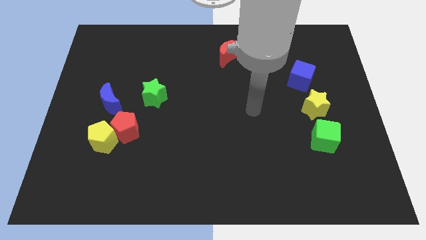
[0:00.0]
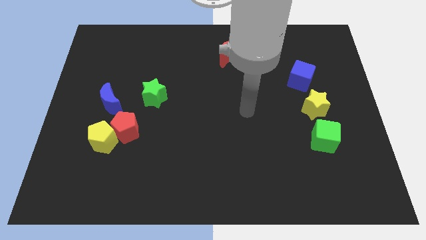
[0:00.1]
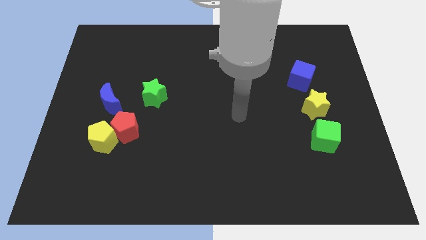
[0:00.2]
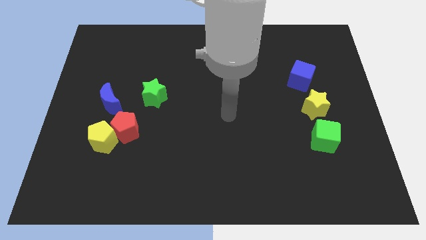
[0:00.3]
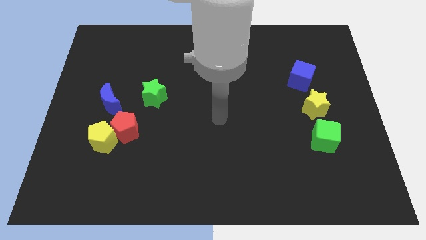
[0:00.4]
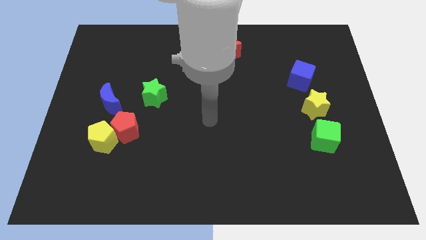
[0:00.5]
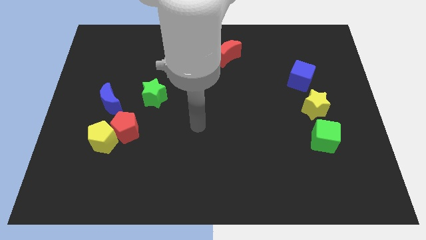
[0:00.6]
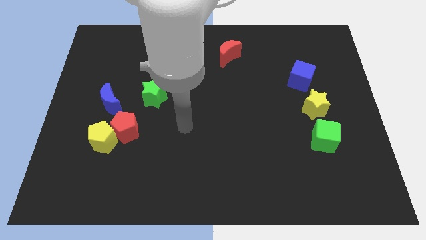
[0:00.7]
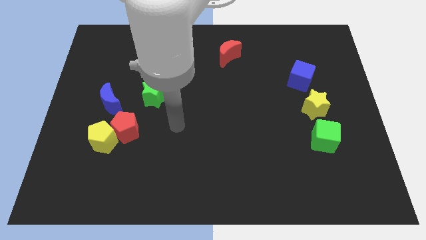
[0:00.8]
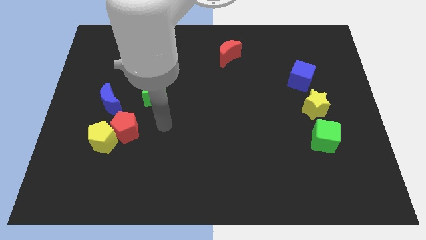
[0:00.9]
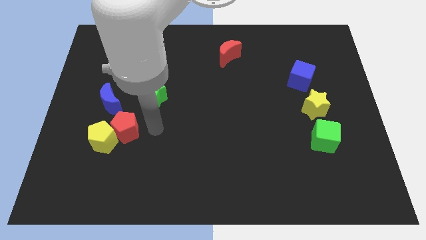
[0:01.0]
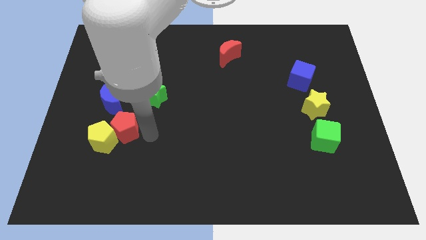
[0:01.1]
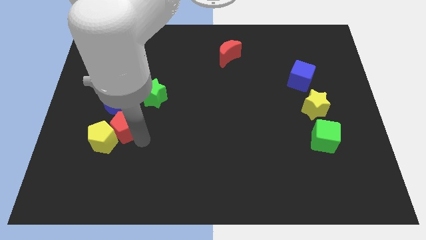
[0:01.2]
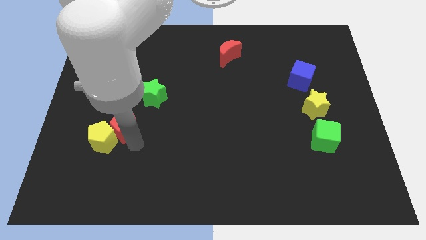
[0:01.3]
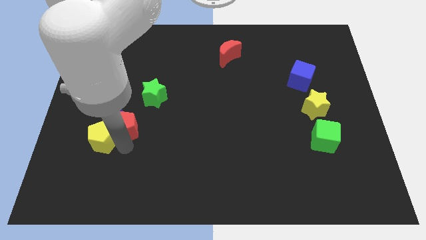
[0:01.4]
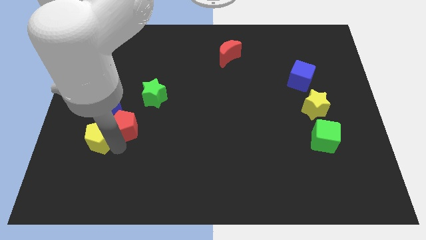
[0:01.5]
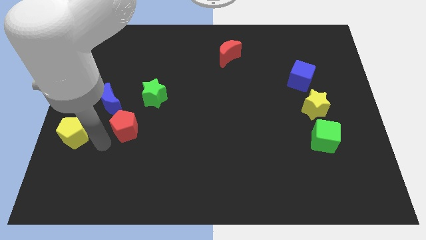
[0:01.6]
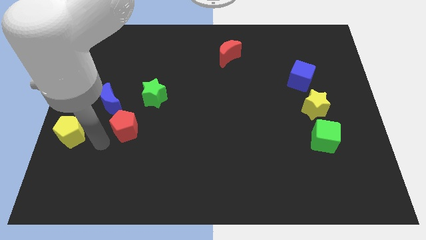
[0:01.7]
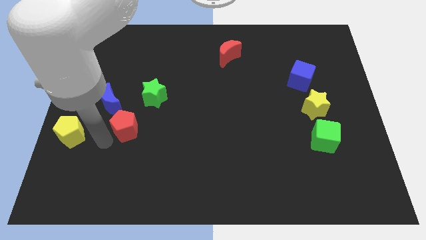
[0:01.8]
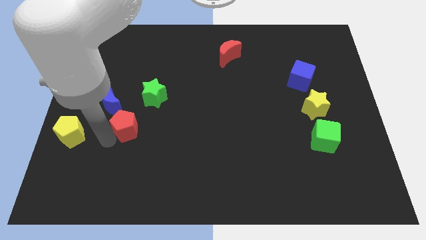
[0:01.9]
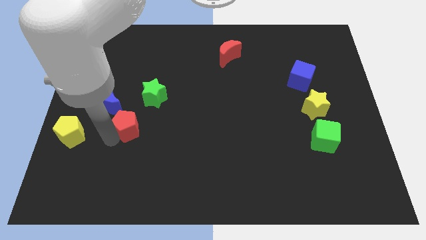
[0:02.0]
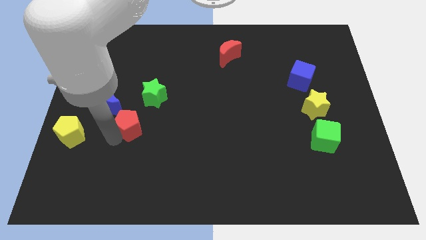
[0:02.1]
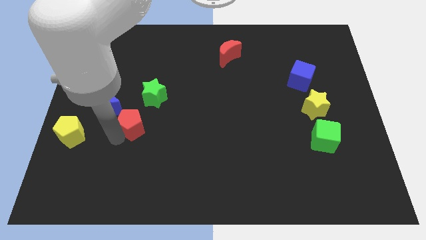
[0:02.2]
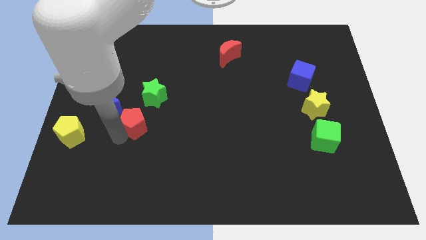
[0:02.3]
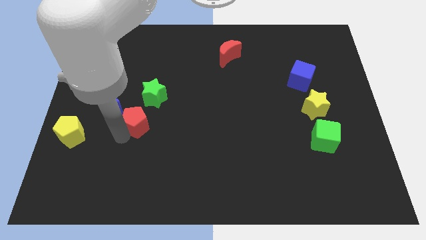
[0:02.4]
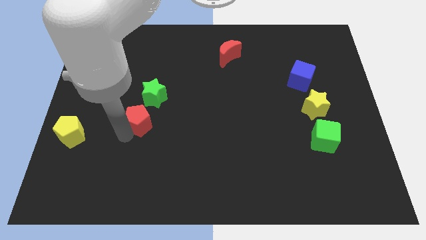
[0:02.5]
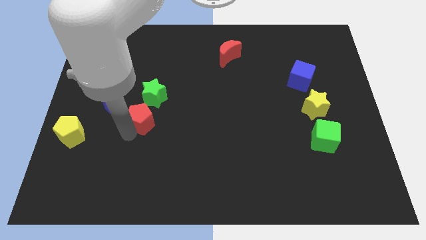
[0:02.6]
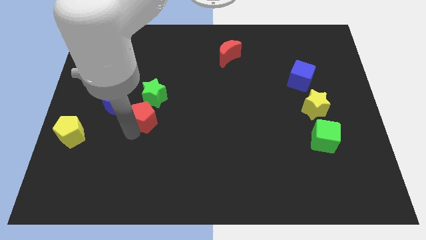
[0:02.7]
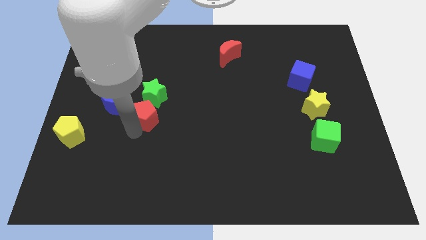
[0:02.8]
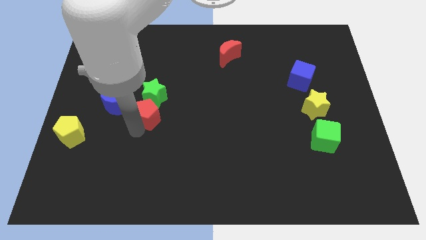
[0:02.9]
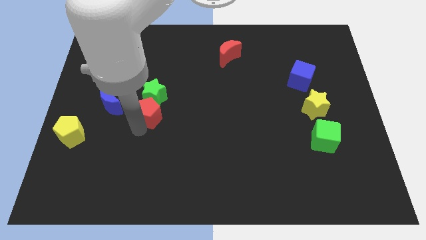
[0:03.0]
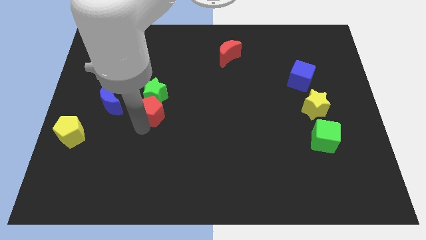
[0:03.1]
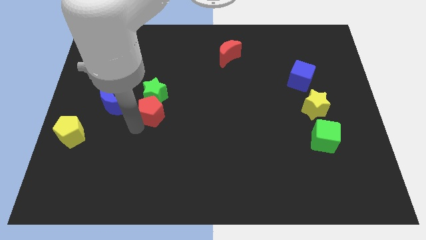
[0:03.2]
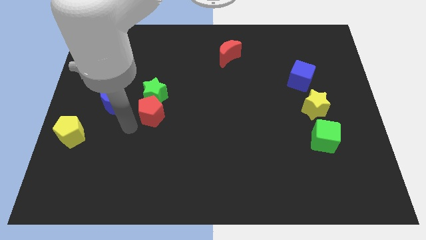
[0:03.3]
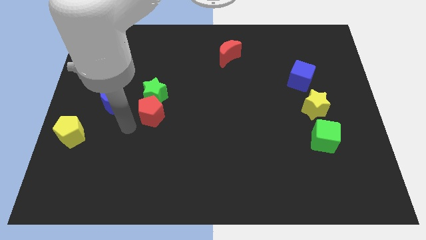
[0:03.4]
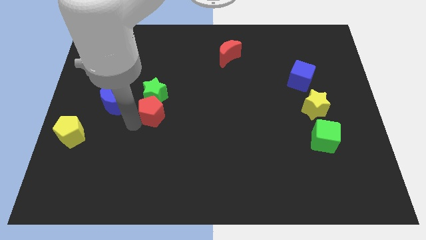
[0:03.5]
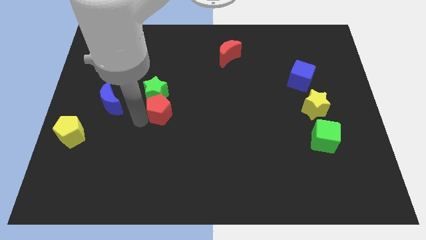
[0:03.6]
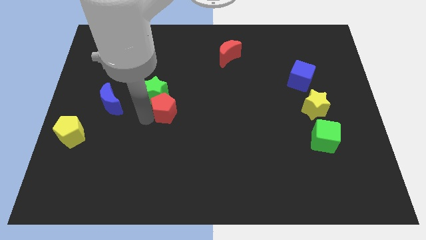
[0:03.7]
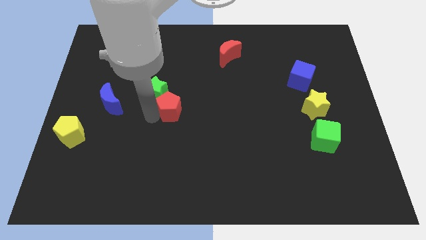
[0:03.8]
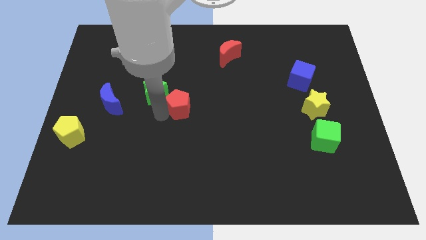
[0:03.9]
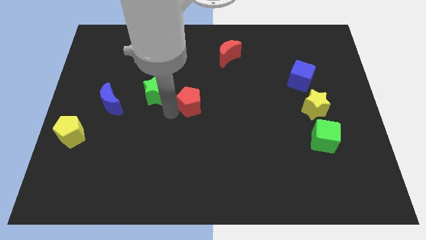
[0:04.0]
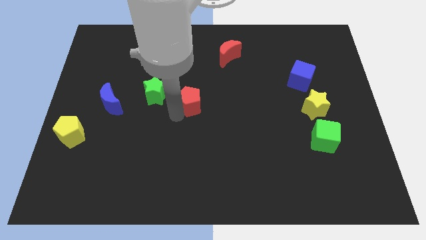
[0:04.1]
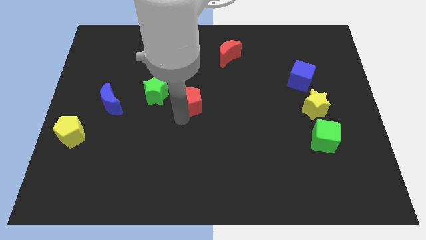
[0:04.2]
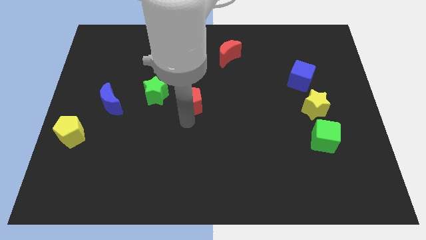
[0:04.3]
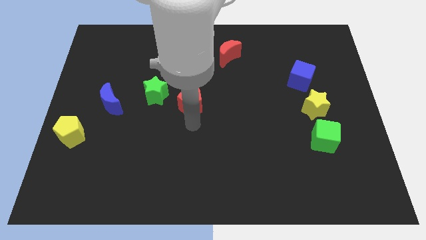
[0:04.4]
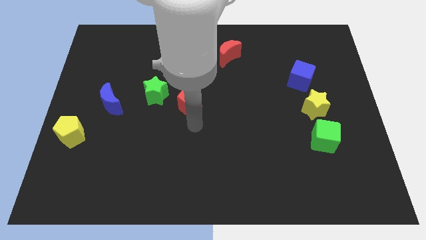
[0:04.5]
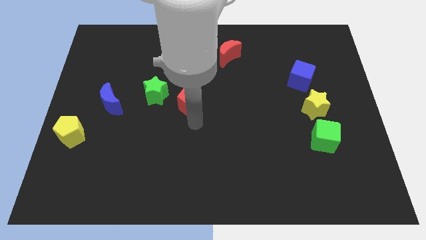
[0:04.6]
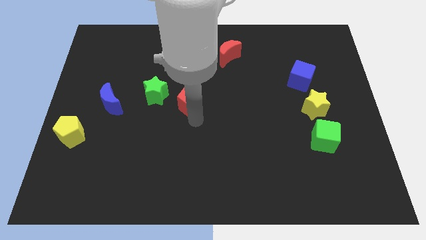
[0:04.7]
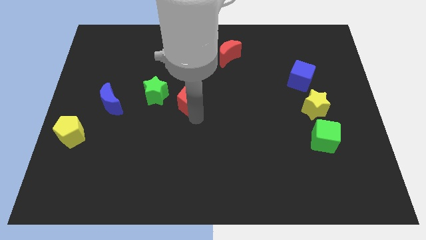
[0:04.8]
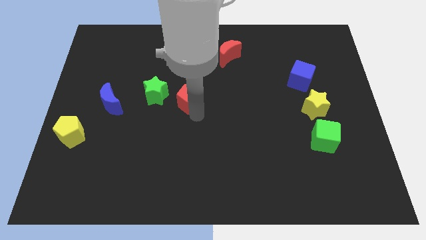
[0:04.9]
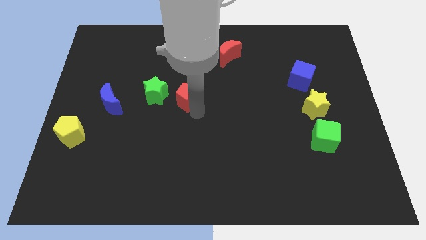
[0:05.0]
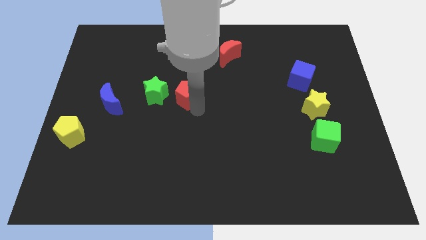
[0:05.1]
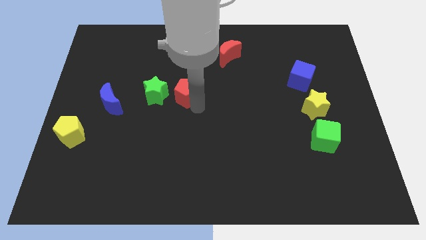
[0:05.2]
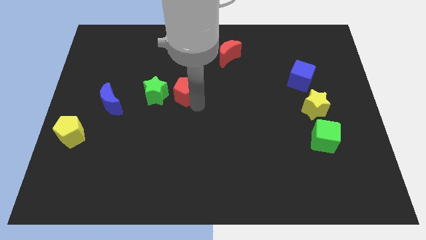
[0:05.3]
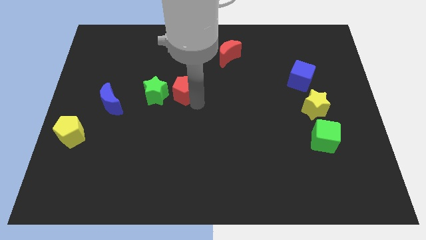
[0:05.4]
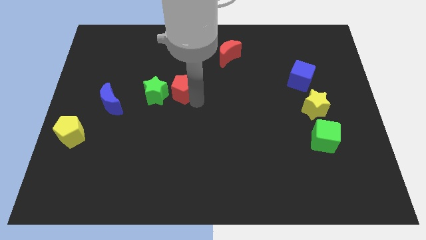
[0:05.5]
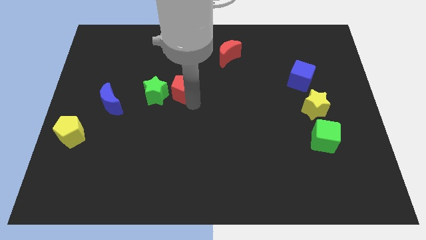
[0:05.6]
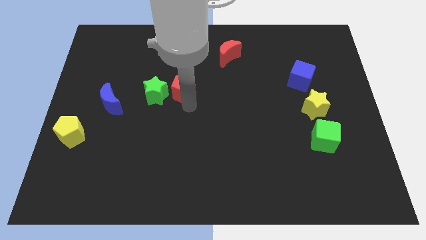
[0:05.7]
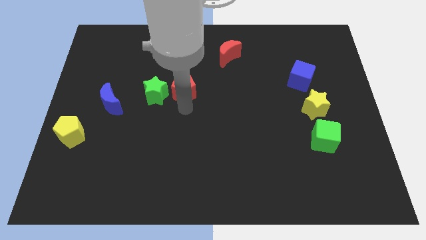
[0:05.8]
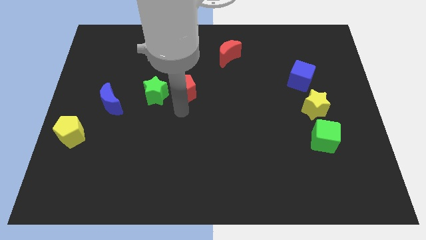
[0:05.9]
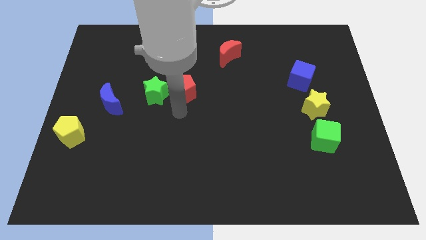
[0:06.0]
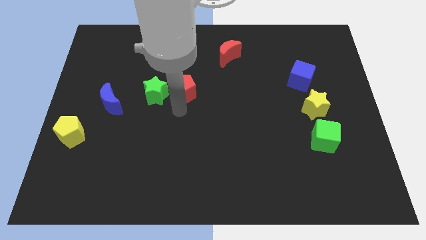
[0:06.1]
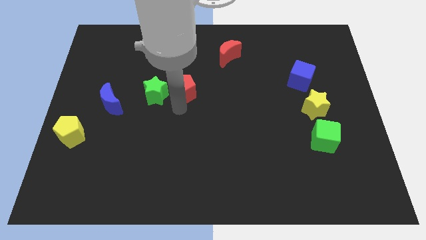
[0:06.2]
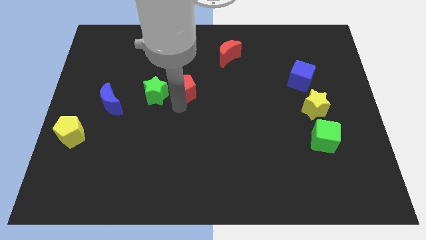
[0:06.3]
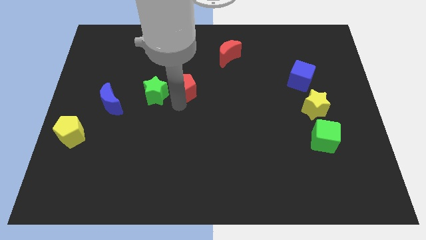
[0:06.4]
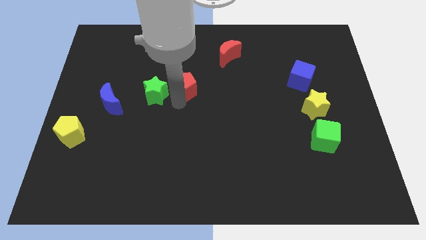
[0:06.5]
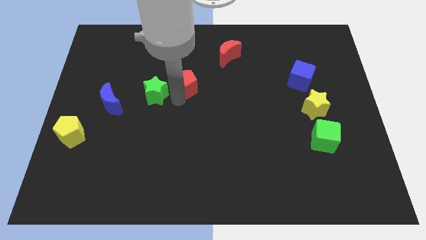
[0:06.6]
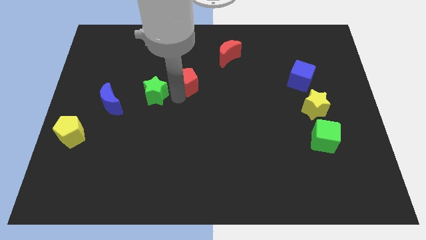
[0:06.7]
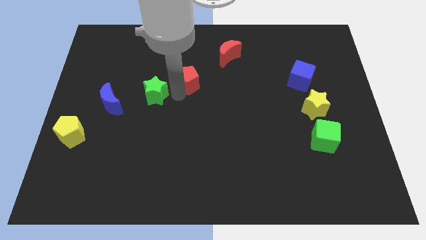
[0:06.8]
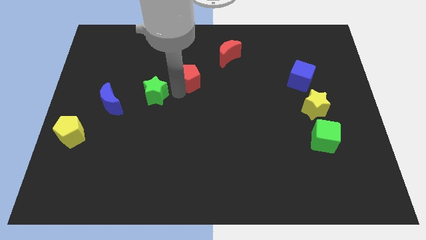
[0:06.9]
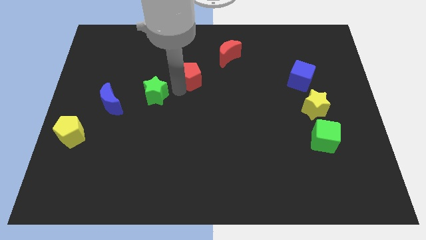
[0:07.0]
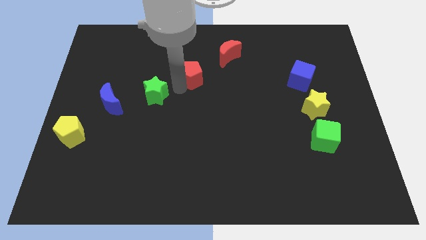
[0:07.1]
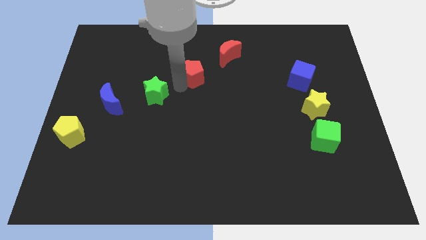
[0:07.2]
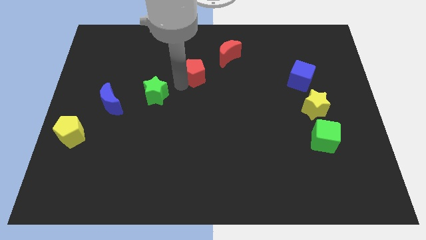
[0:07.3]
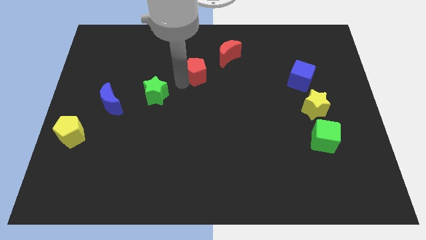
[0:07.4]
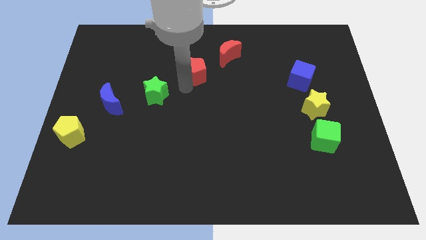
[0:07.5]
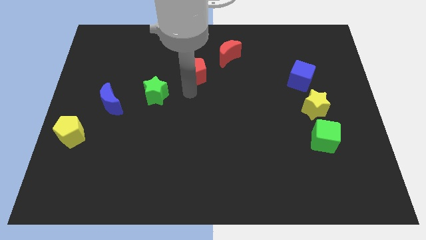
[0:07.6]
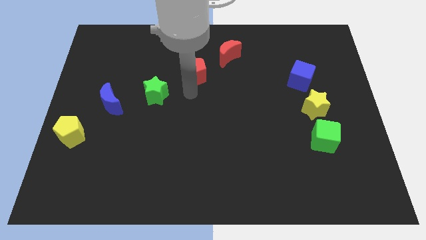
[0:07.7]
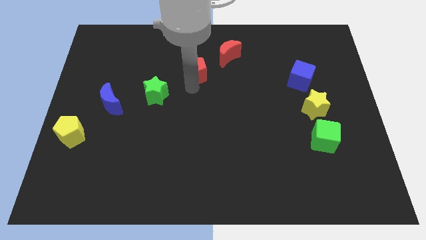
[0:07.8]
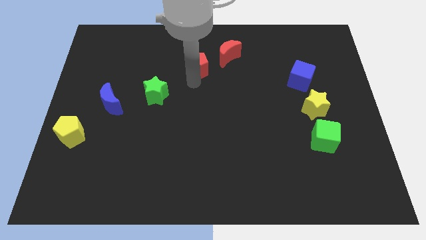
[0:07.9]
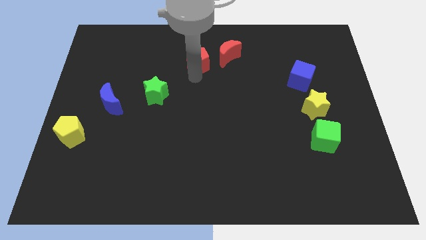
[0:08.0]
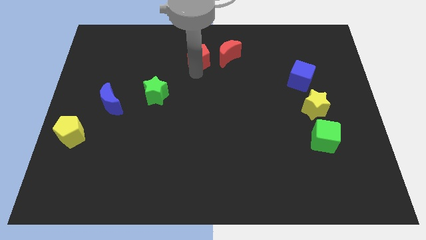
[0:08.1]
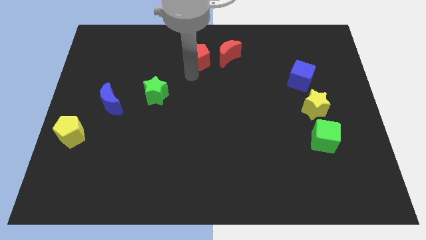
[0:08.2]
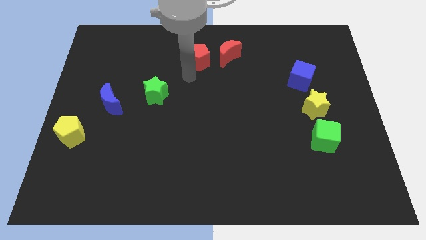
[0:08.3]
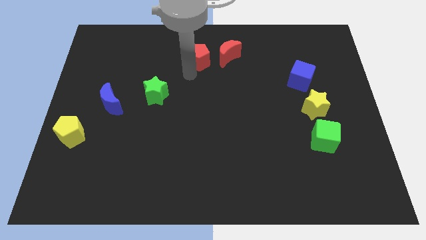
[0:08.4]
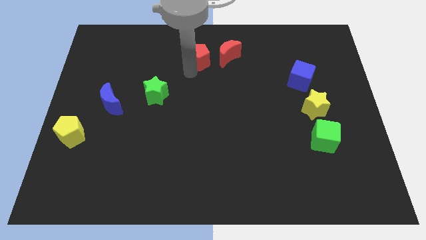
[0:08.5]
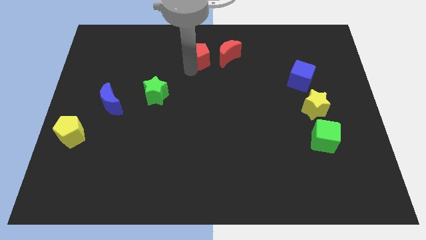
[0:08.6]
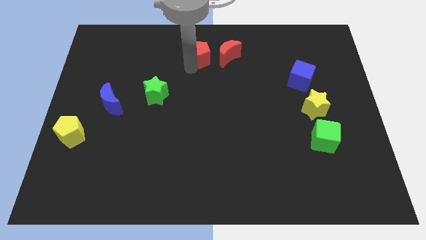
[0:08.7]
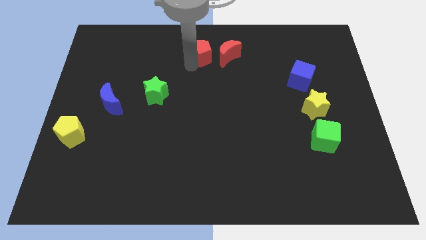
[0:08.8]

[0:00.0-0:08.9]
push the red pentagon to the top side
